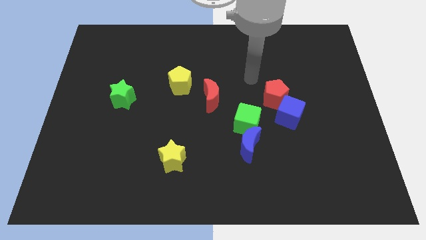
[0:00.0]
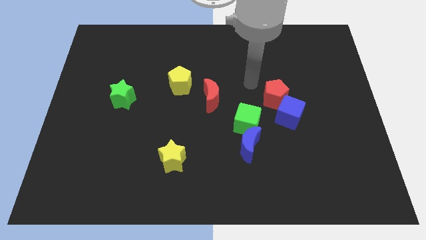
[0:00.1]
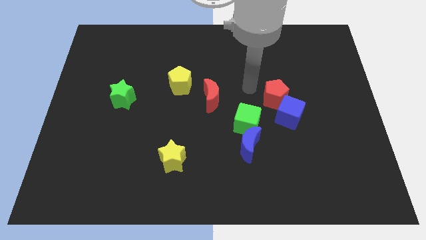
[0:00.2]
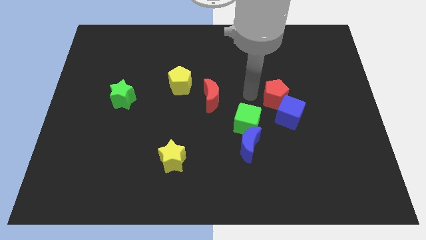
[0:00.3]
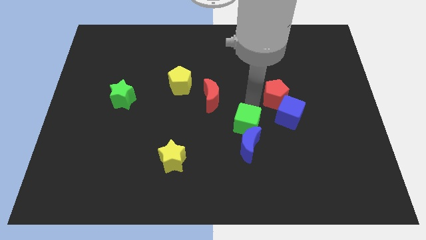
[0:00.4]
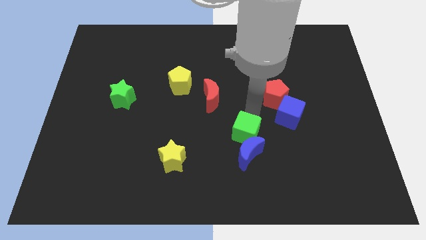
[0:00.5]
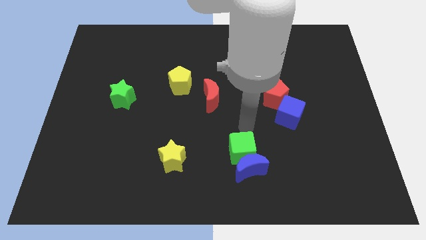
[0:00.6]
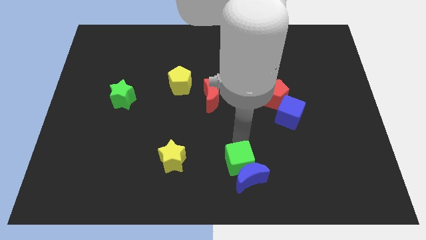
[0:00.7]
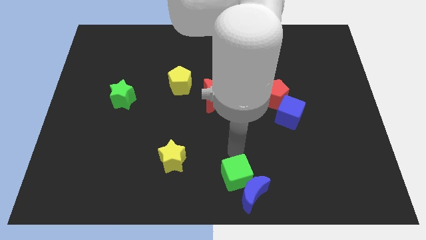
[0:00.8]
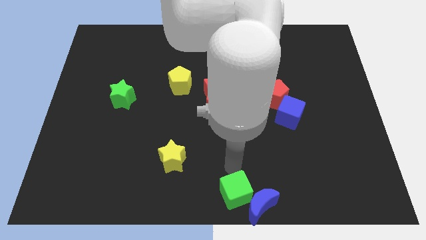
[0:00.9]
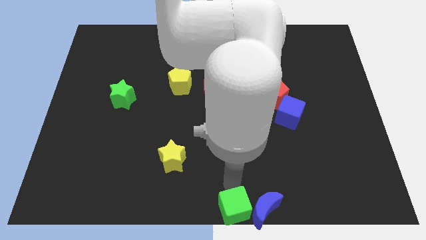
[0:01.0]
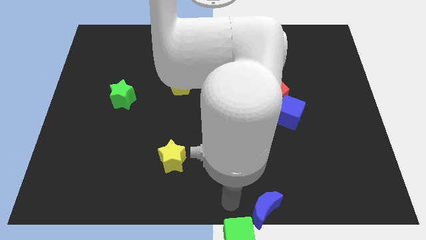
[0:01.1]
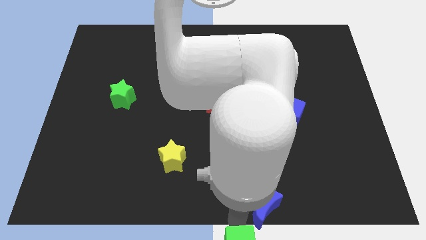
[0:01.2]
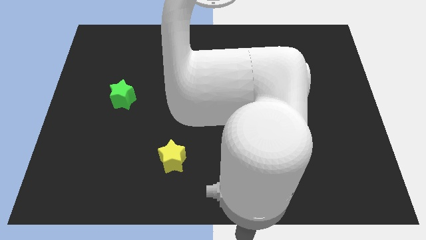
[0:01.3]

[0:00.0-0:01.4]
move the blue moon away from the green cube

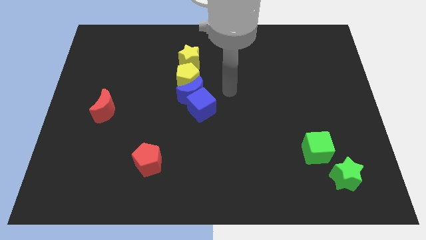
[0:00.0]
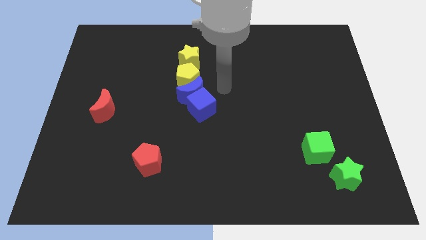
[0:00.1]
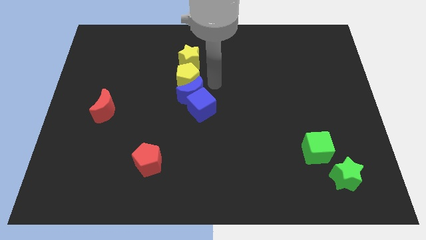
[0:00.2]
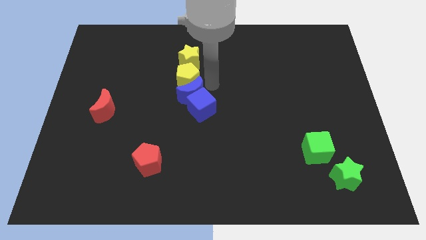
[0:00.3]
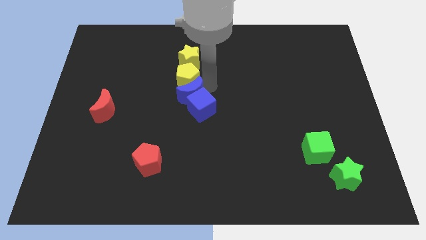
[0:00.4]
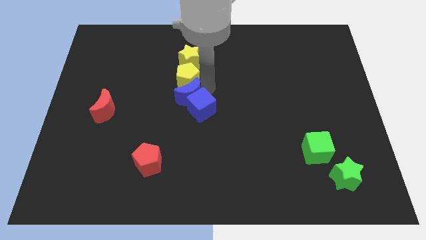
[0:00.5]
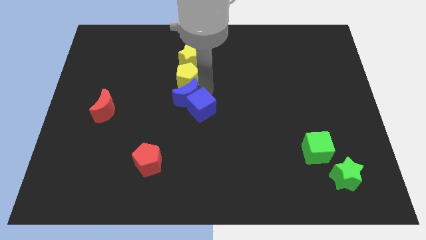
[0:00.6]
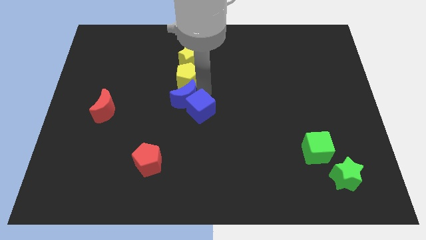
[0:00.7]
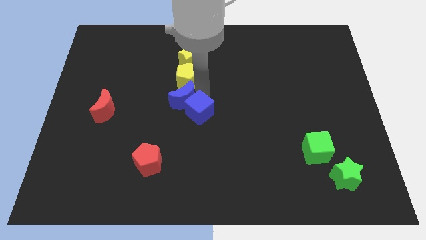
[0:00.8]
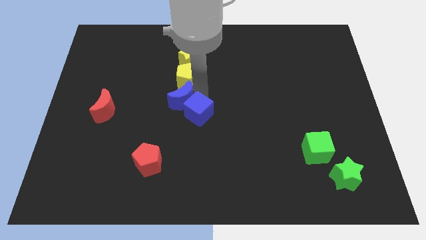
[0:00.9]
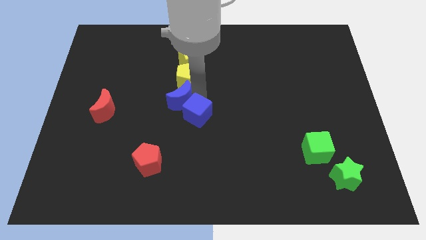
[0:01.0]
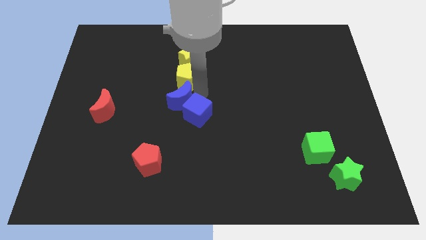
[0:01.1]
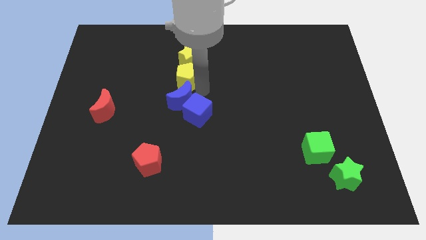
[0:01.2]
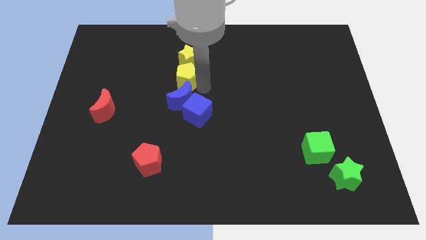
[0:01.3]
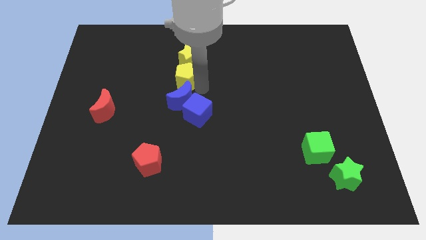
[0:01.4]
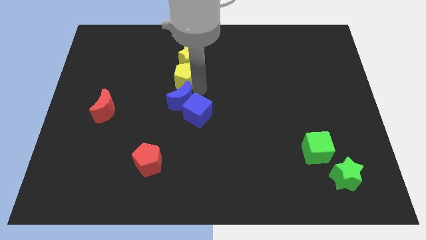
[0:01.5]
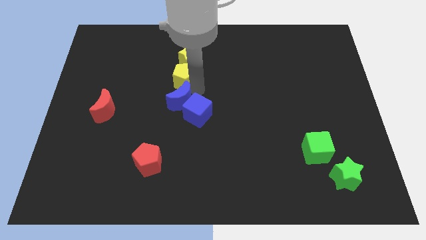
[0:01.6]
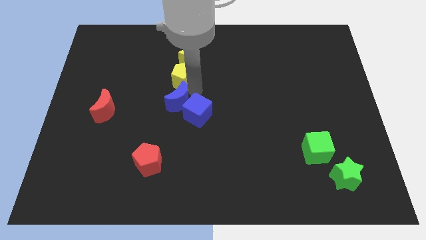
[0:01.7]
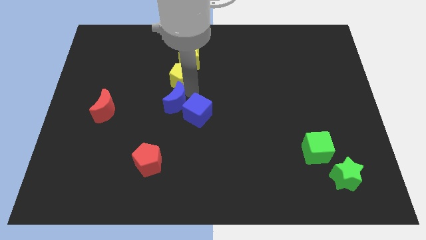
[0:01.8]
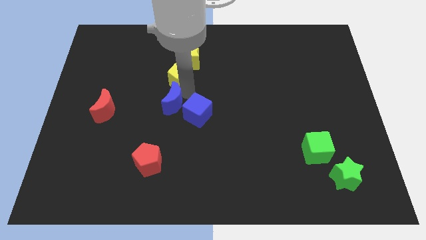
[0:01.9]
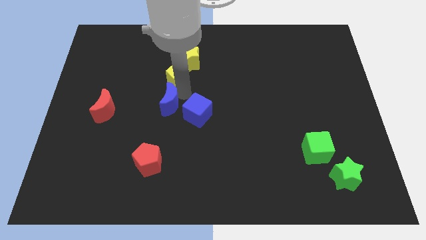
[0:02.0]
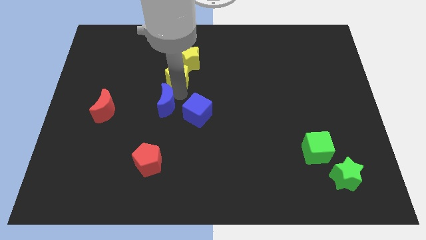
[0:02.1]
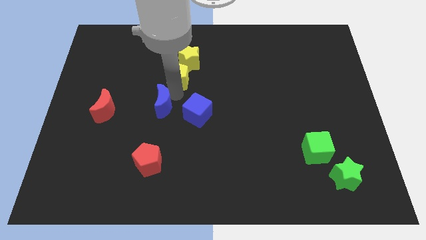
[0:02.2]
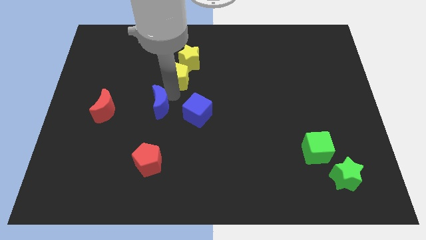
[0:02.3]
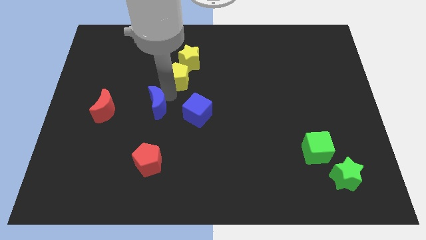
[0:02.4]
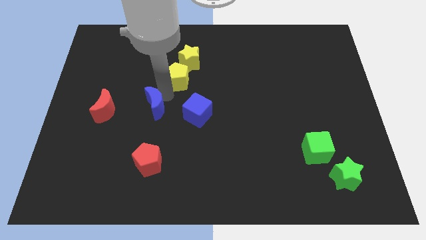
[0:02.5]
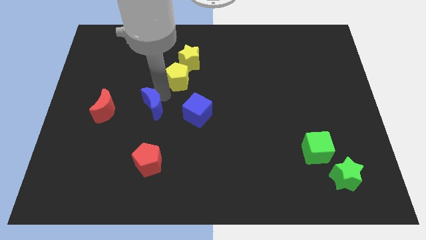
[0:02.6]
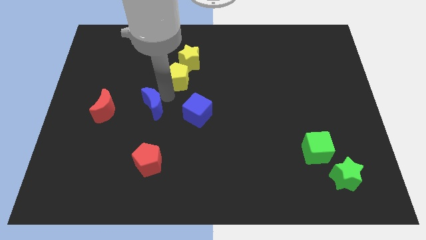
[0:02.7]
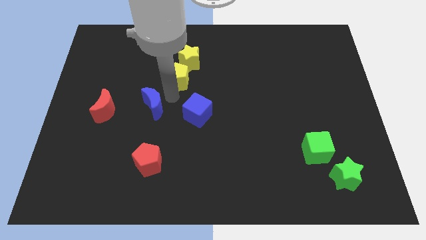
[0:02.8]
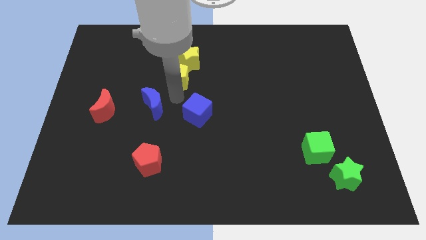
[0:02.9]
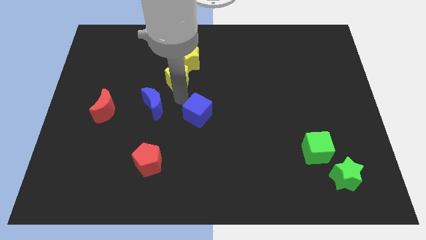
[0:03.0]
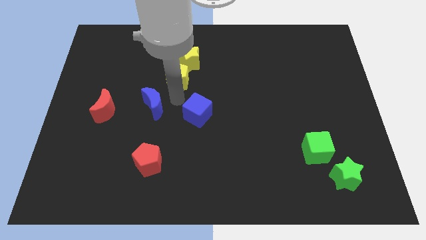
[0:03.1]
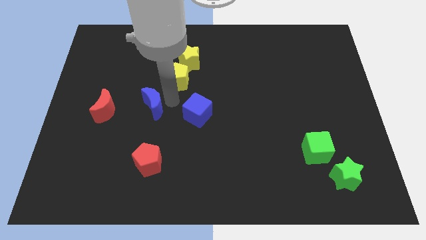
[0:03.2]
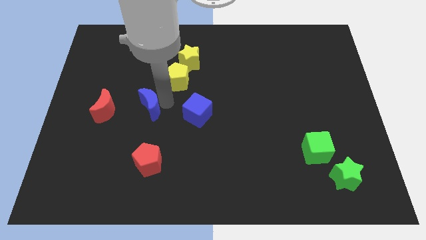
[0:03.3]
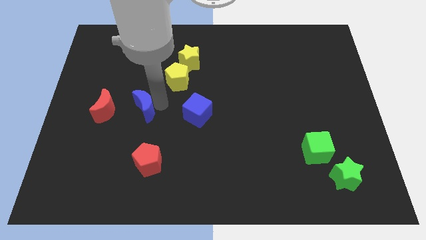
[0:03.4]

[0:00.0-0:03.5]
pull the blue moon apart from the blue cube and yellow pentagon

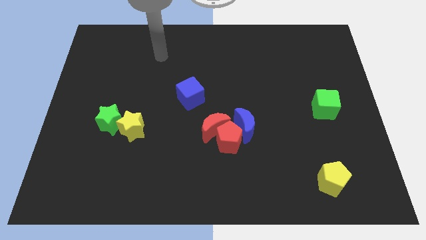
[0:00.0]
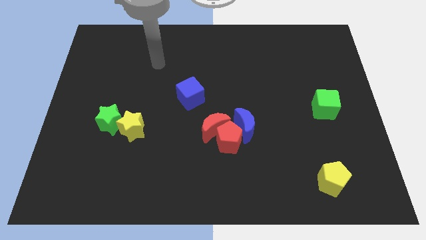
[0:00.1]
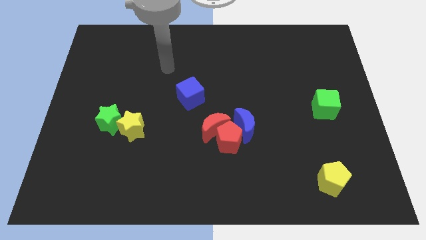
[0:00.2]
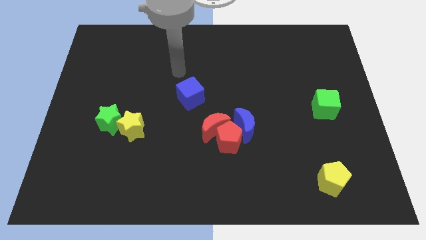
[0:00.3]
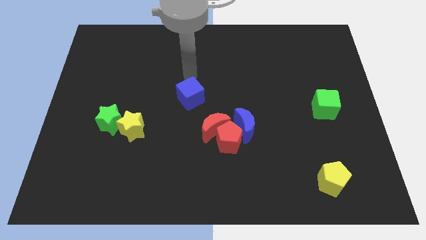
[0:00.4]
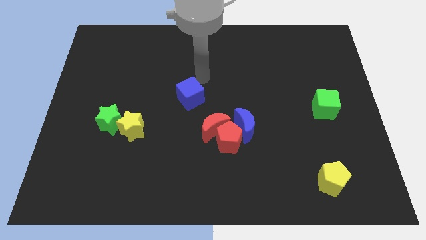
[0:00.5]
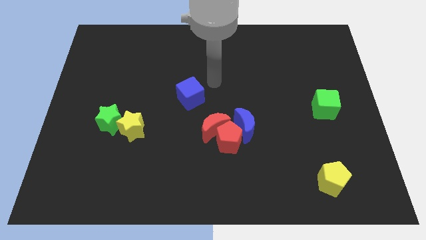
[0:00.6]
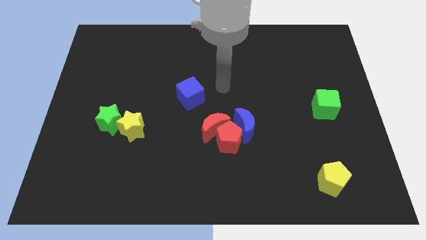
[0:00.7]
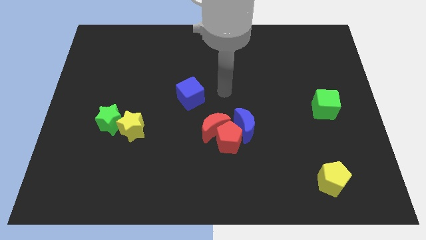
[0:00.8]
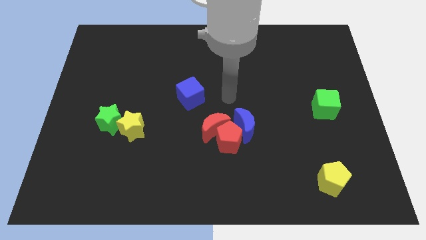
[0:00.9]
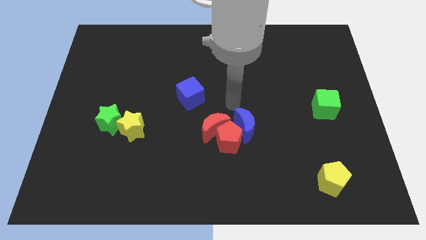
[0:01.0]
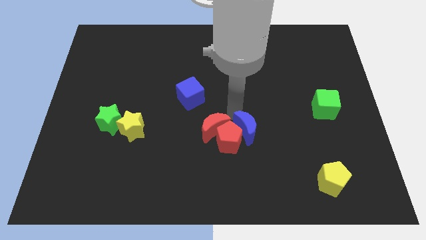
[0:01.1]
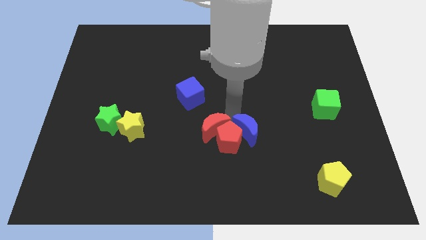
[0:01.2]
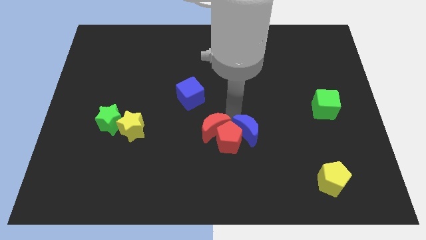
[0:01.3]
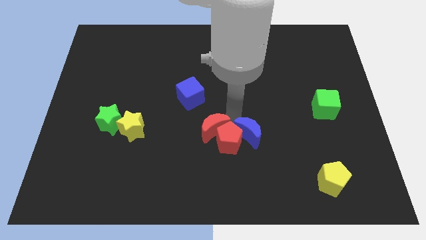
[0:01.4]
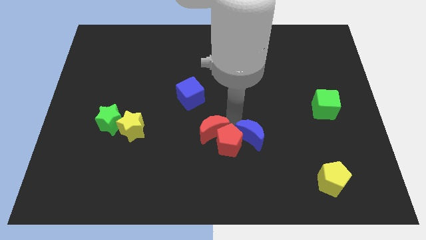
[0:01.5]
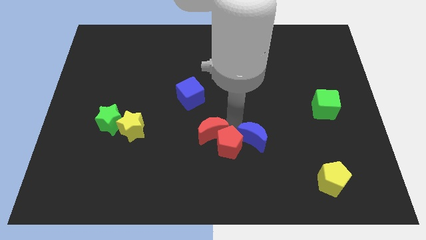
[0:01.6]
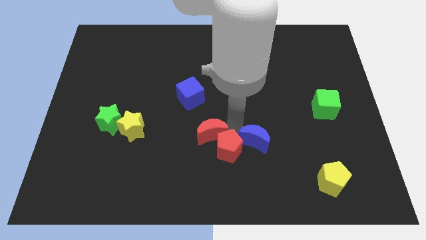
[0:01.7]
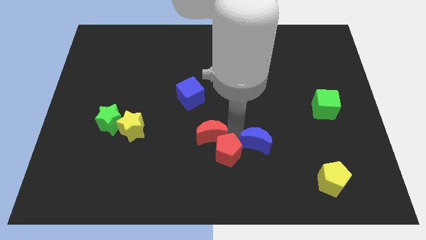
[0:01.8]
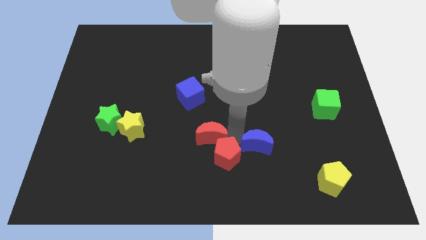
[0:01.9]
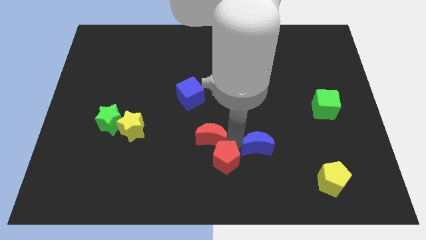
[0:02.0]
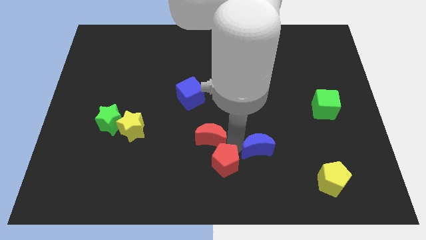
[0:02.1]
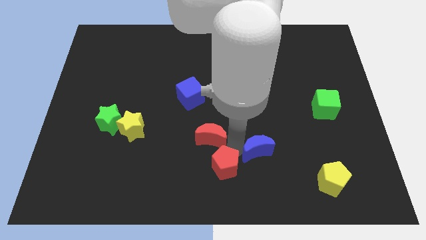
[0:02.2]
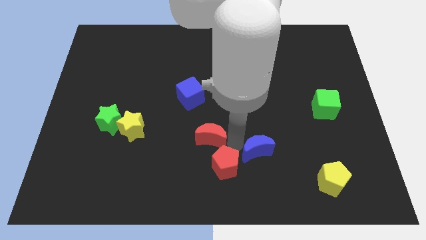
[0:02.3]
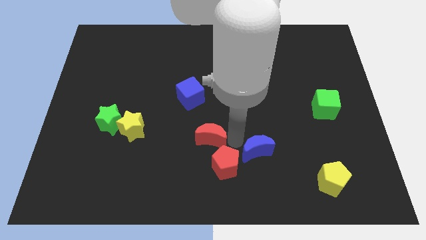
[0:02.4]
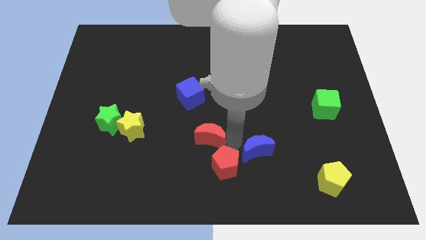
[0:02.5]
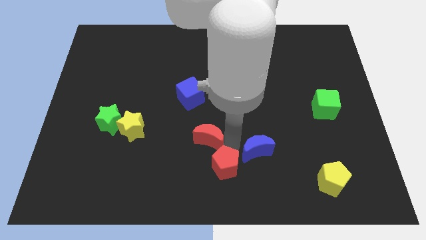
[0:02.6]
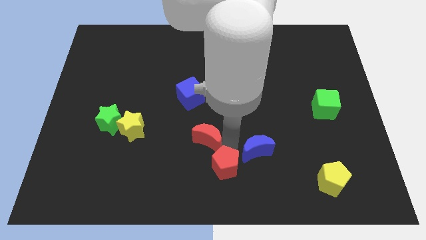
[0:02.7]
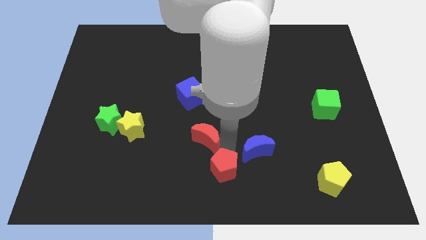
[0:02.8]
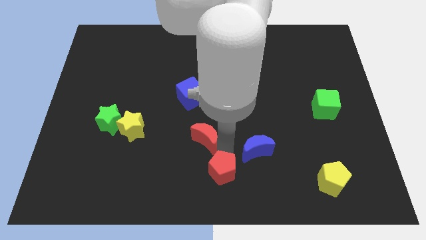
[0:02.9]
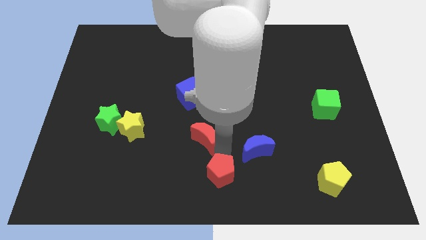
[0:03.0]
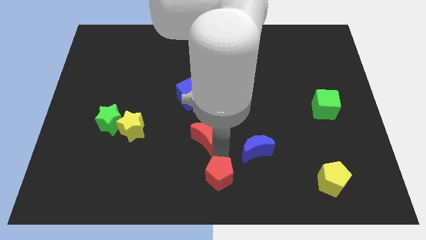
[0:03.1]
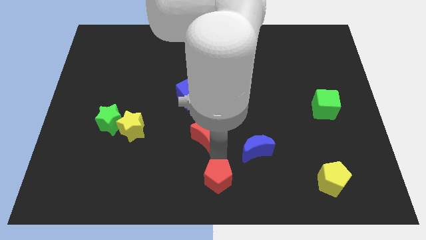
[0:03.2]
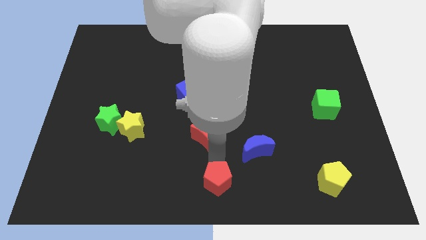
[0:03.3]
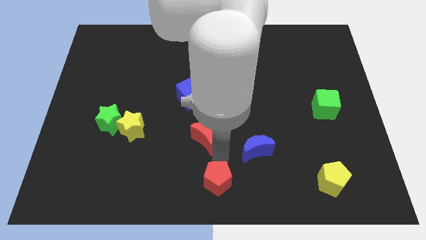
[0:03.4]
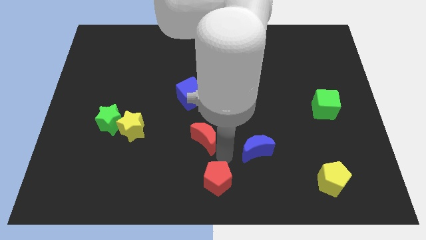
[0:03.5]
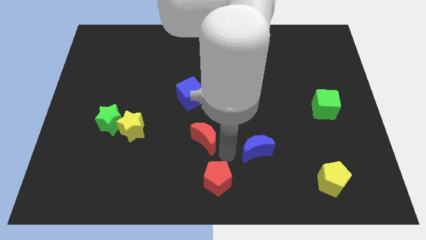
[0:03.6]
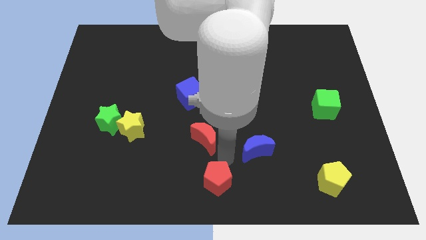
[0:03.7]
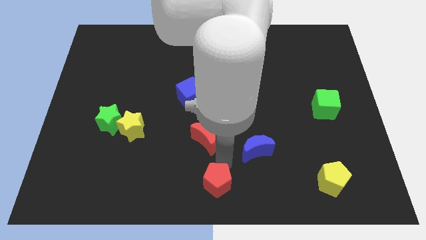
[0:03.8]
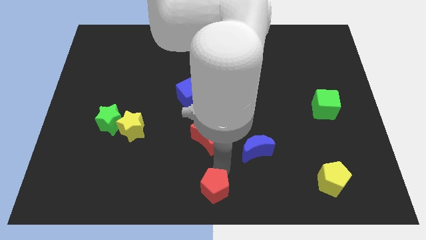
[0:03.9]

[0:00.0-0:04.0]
move the red pentagon away from the red moon and blue moon

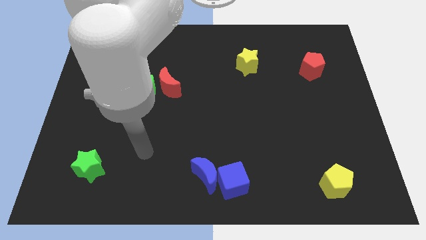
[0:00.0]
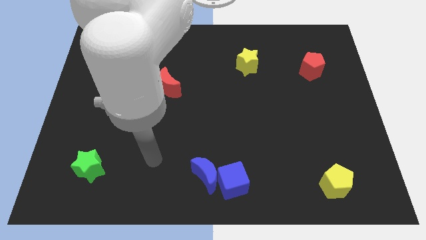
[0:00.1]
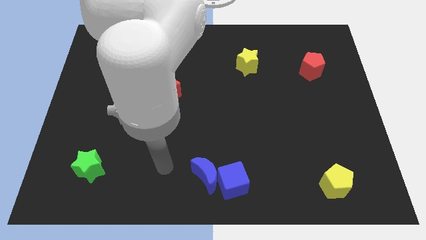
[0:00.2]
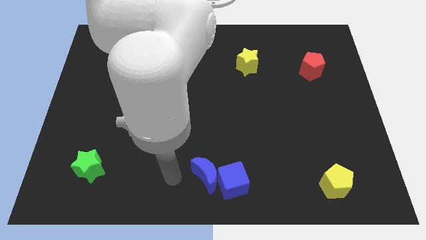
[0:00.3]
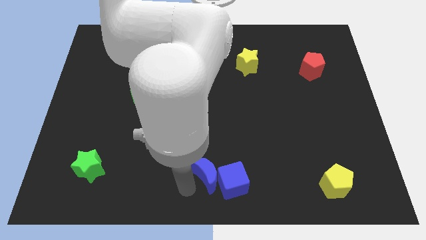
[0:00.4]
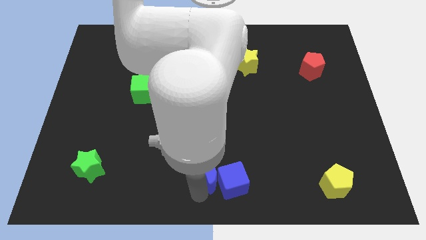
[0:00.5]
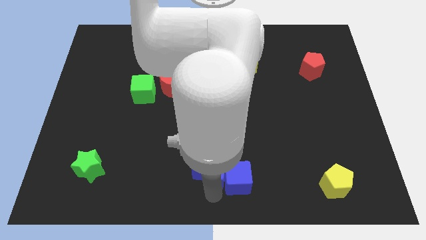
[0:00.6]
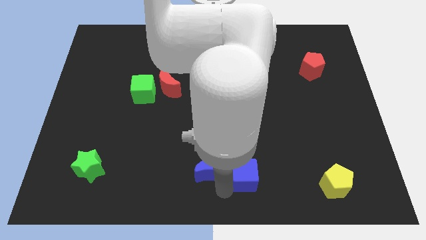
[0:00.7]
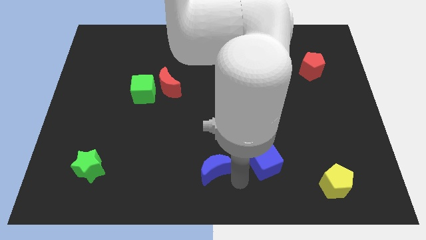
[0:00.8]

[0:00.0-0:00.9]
pull the blue moon apart from the blue cube
